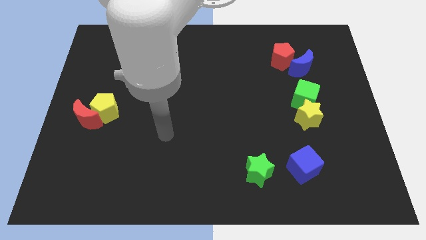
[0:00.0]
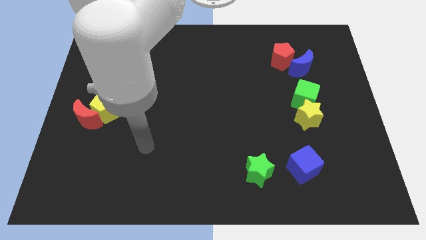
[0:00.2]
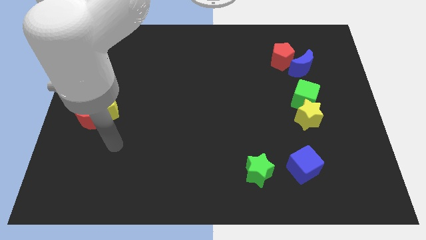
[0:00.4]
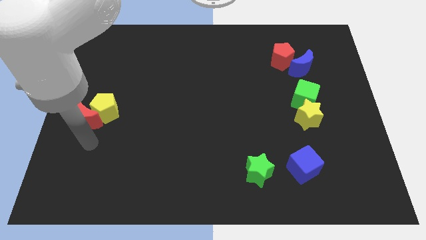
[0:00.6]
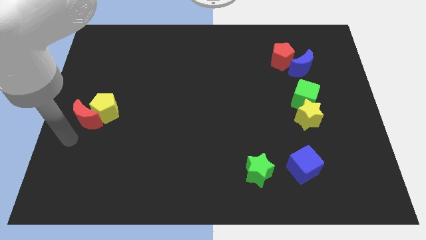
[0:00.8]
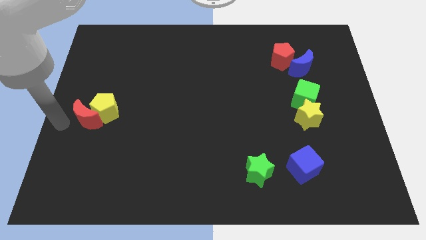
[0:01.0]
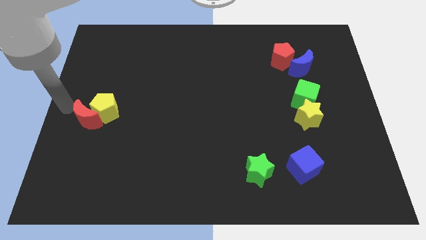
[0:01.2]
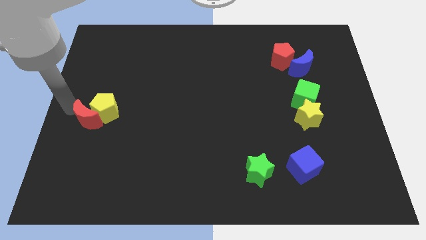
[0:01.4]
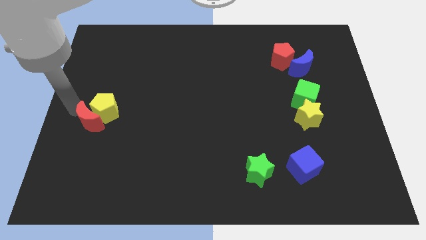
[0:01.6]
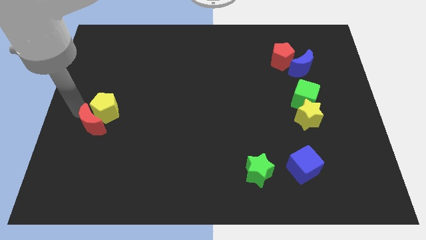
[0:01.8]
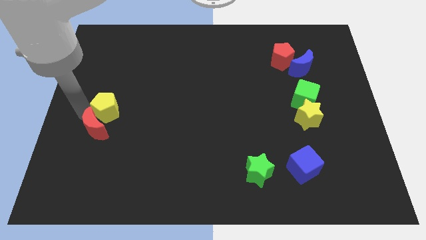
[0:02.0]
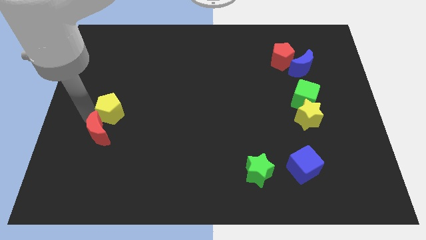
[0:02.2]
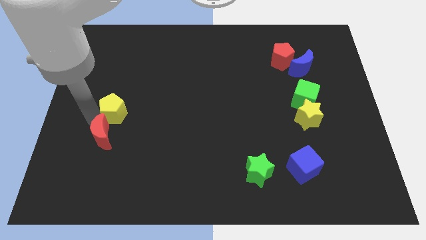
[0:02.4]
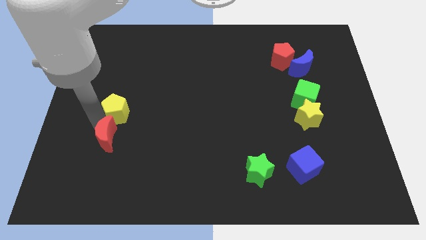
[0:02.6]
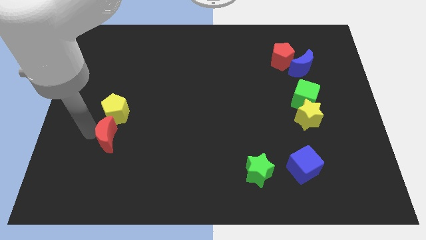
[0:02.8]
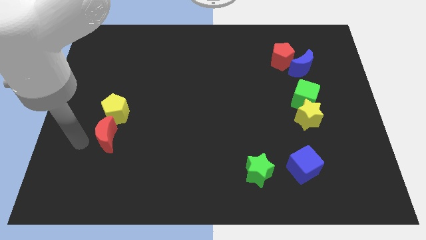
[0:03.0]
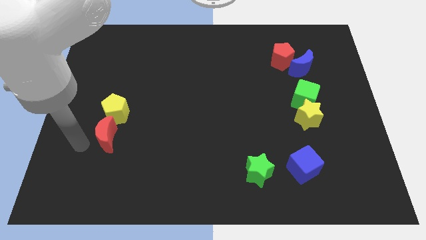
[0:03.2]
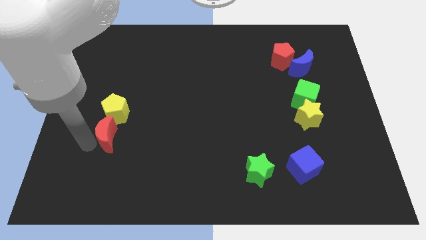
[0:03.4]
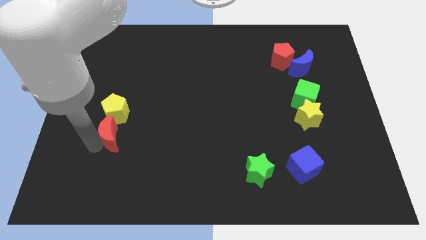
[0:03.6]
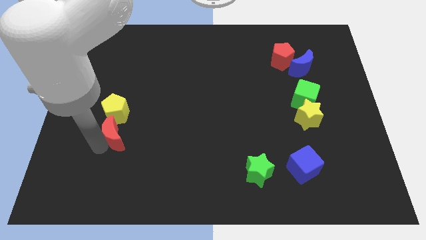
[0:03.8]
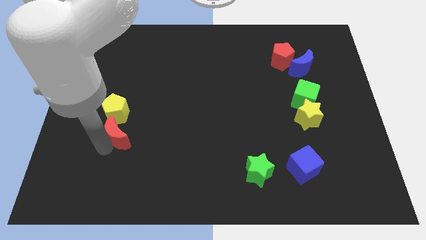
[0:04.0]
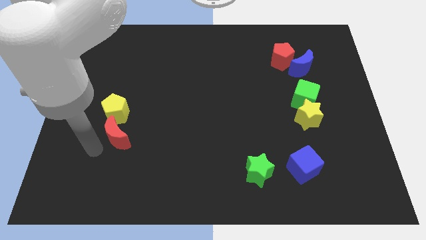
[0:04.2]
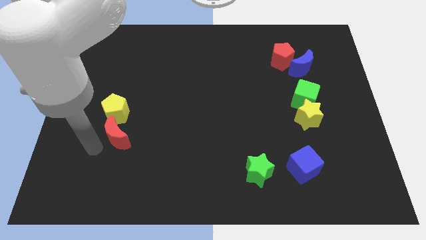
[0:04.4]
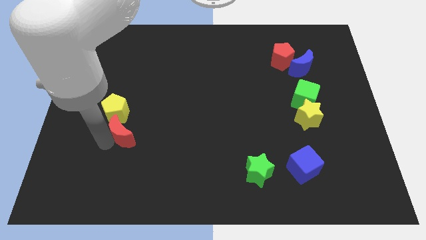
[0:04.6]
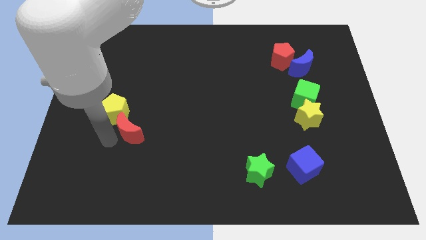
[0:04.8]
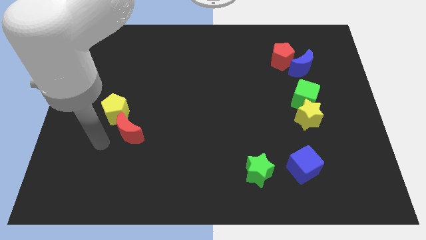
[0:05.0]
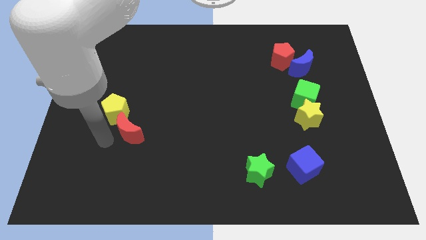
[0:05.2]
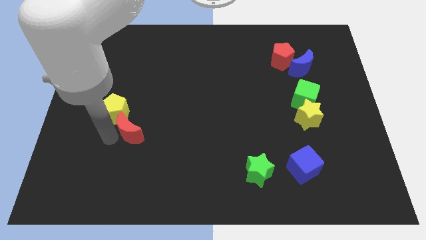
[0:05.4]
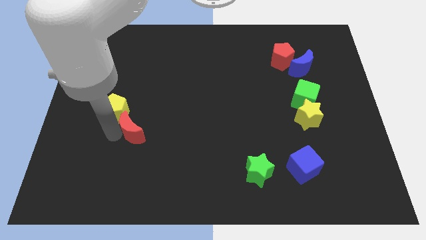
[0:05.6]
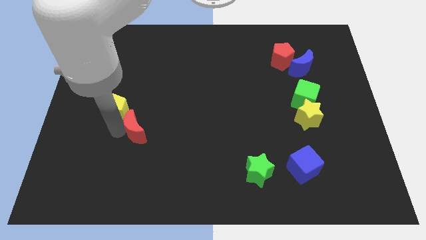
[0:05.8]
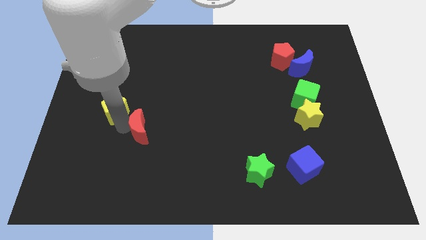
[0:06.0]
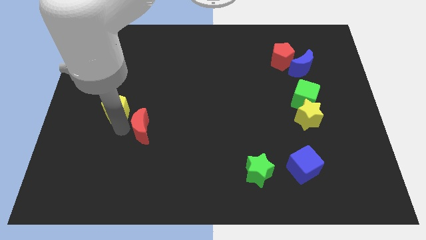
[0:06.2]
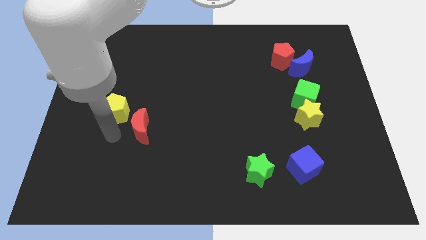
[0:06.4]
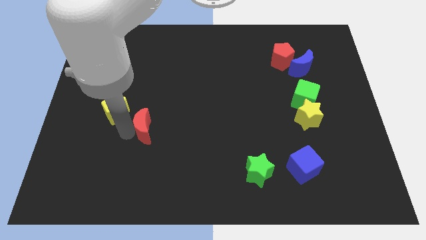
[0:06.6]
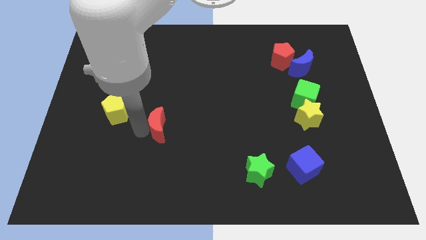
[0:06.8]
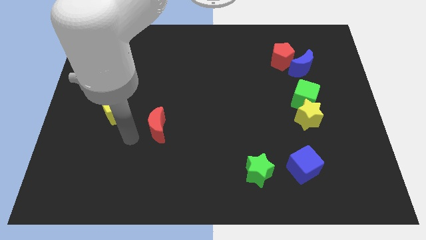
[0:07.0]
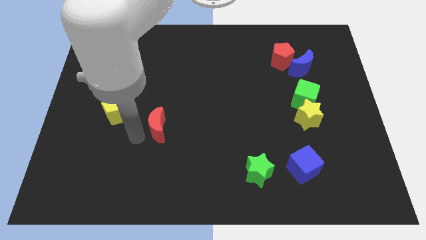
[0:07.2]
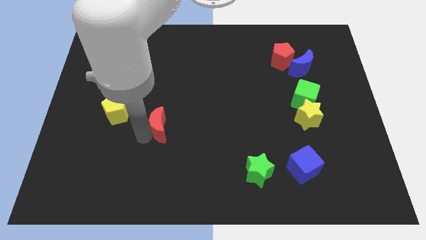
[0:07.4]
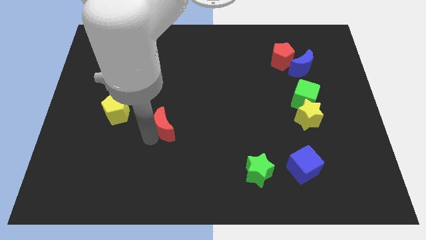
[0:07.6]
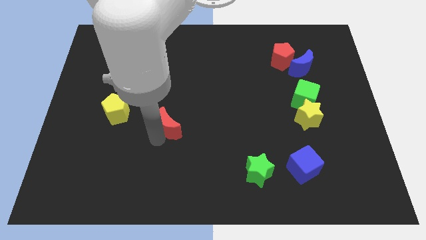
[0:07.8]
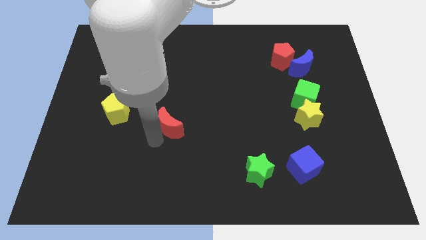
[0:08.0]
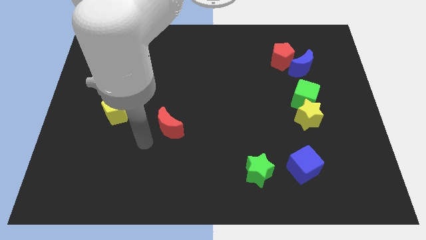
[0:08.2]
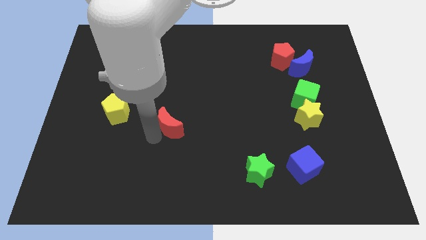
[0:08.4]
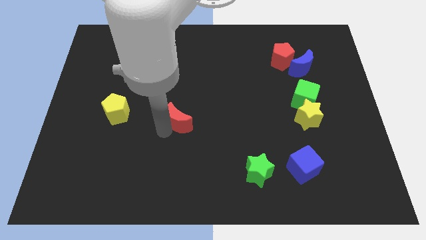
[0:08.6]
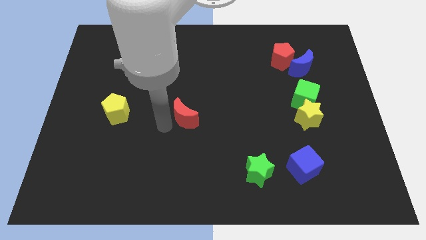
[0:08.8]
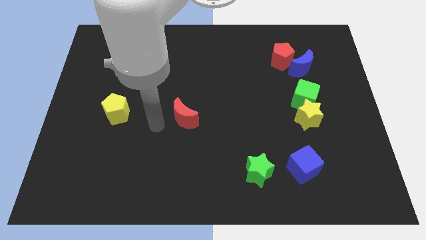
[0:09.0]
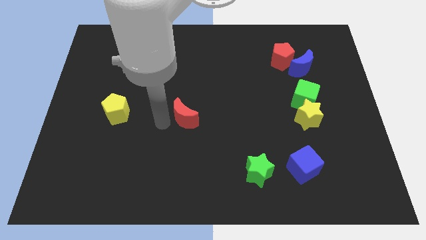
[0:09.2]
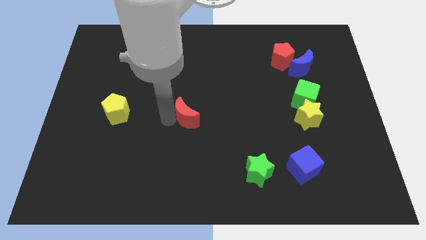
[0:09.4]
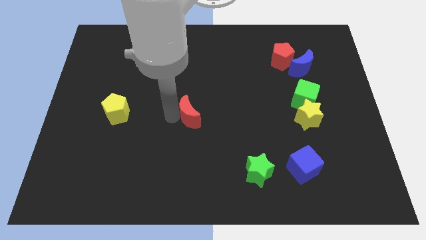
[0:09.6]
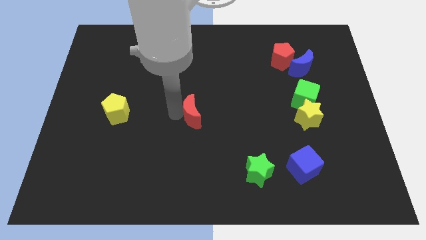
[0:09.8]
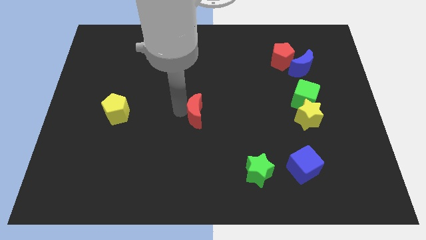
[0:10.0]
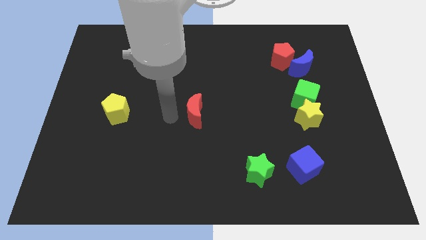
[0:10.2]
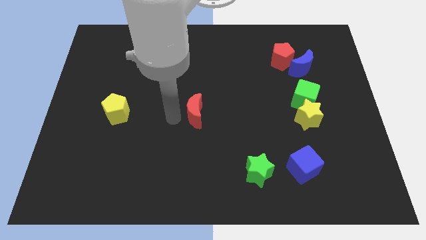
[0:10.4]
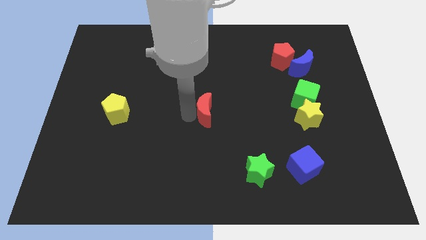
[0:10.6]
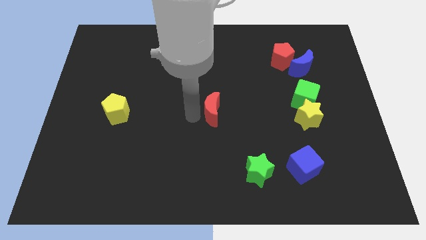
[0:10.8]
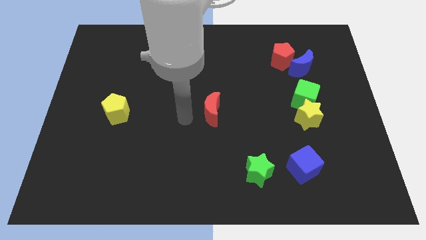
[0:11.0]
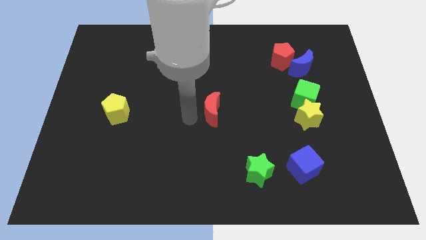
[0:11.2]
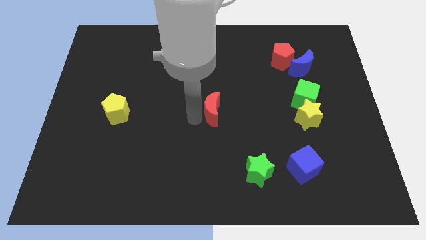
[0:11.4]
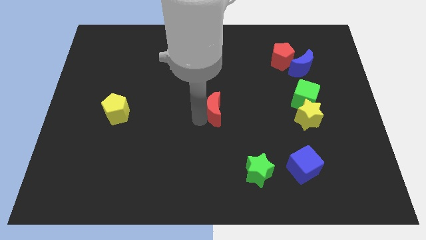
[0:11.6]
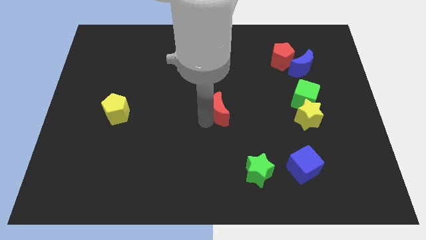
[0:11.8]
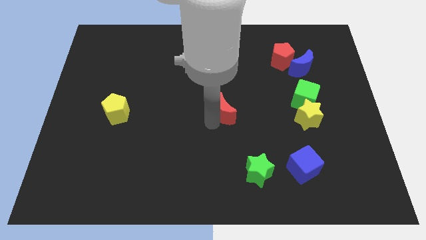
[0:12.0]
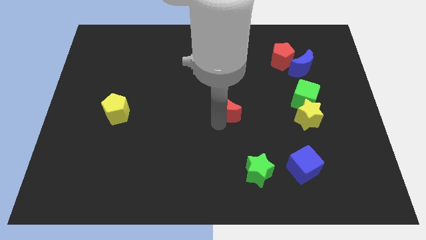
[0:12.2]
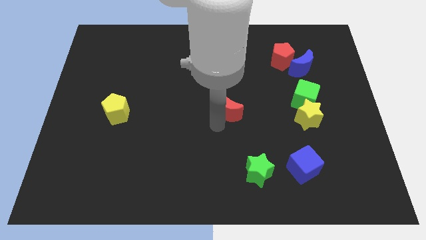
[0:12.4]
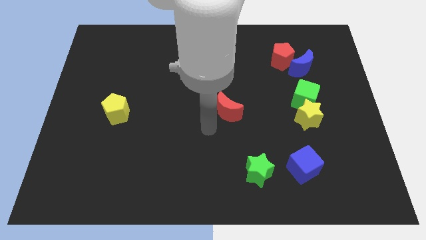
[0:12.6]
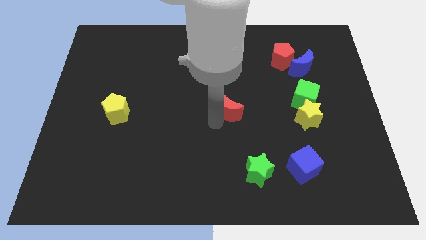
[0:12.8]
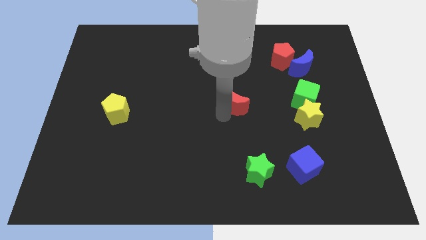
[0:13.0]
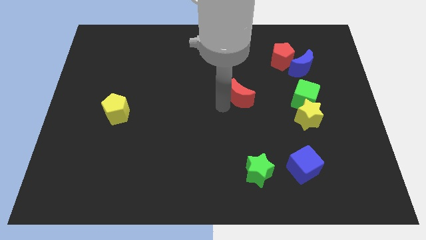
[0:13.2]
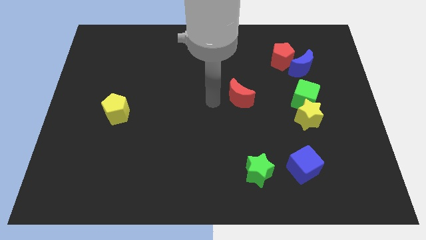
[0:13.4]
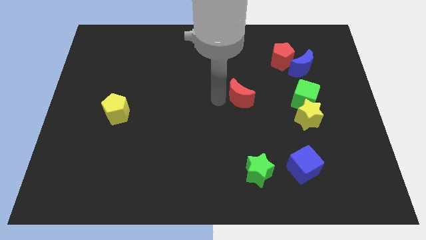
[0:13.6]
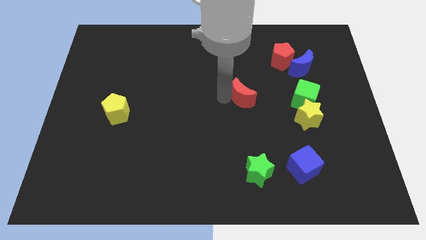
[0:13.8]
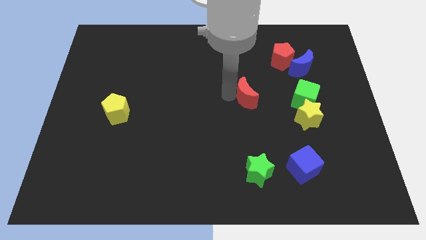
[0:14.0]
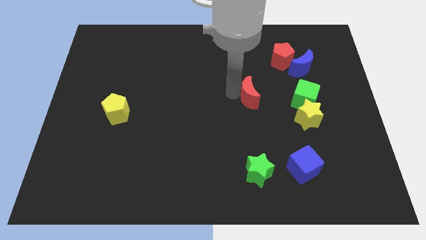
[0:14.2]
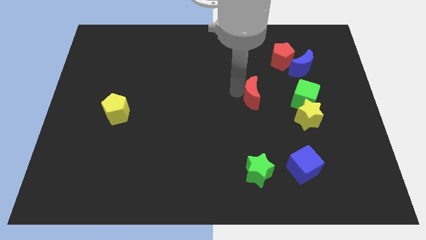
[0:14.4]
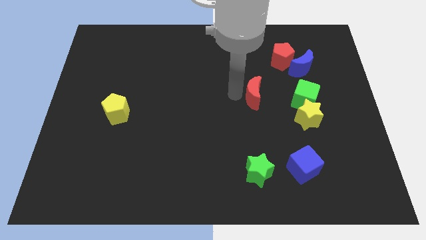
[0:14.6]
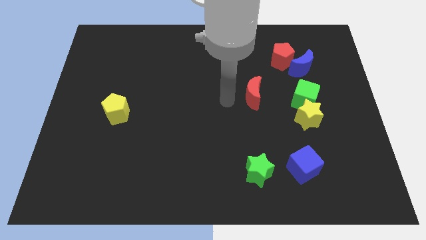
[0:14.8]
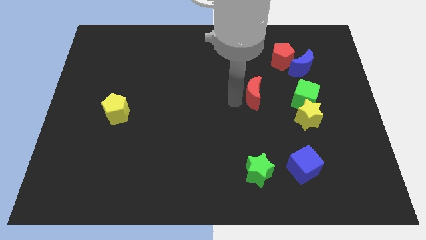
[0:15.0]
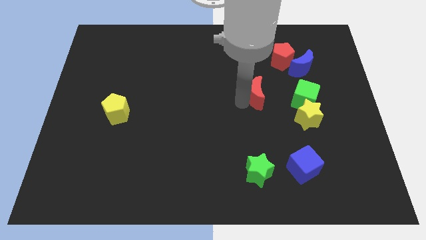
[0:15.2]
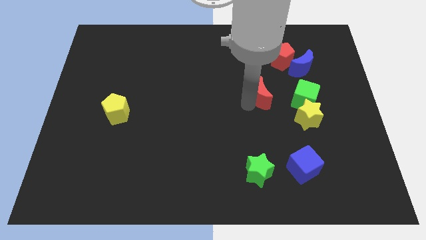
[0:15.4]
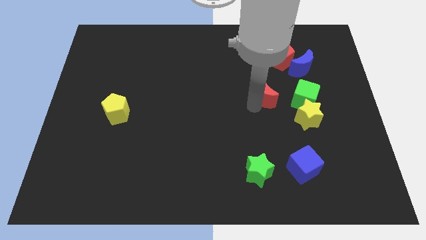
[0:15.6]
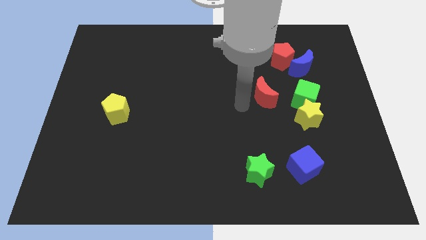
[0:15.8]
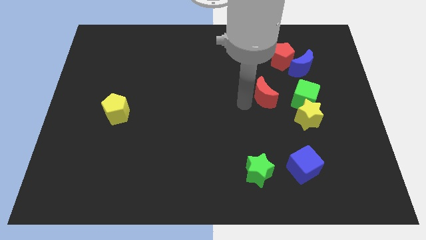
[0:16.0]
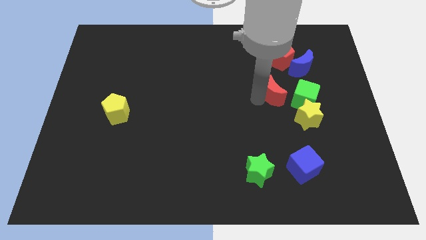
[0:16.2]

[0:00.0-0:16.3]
put the red moon below the red pentagon
